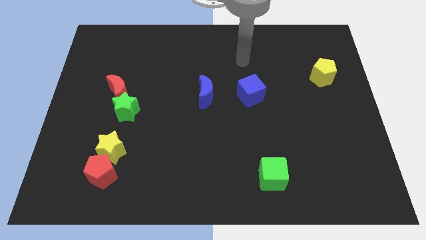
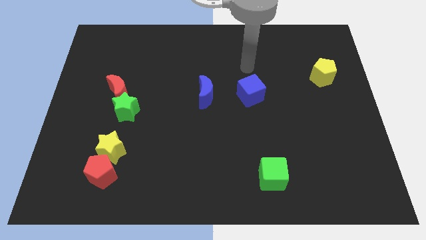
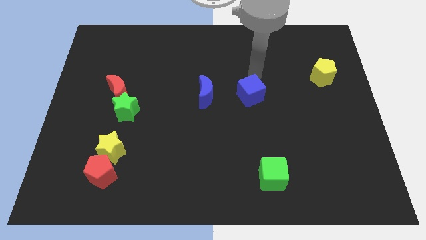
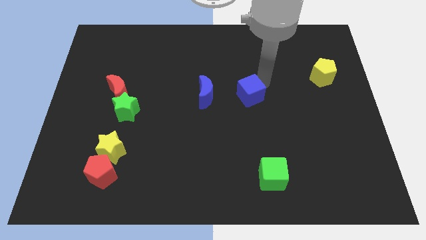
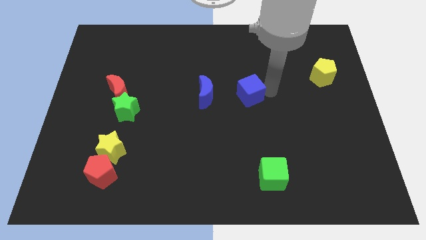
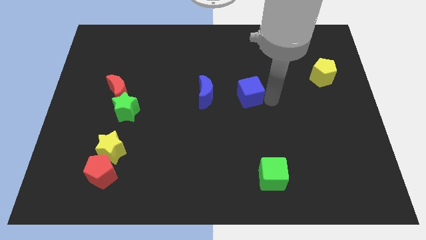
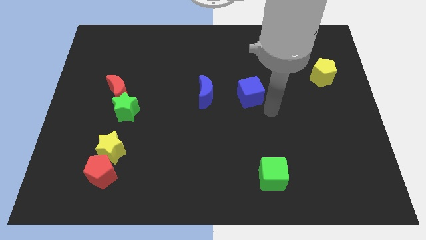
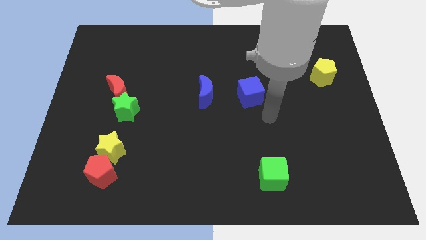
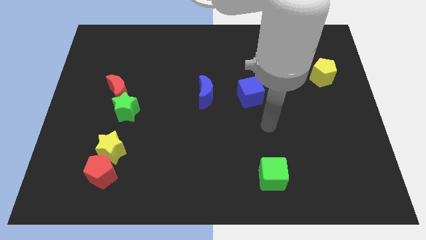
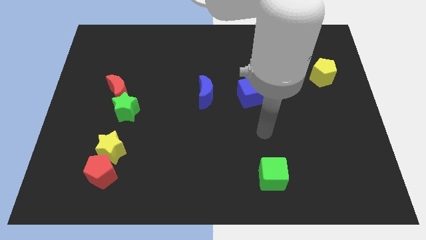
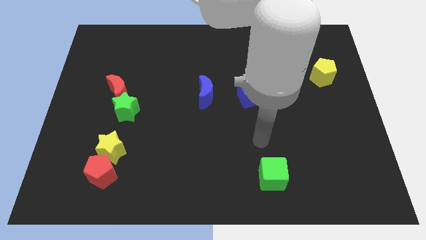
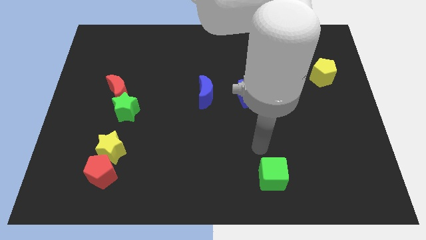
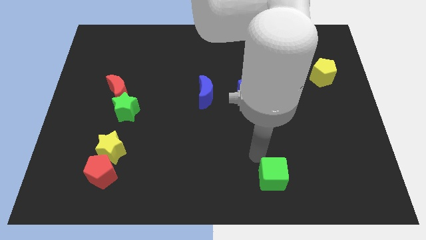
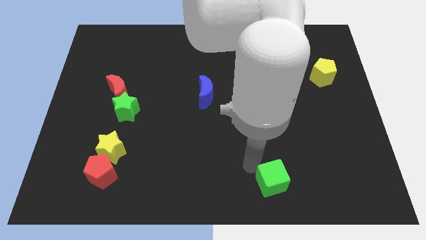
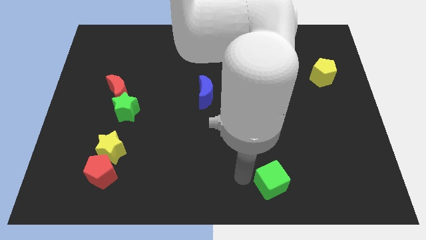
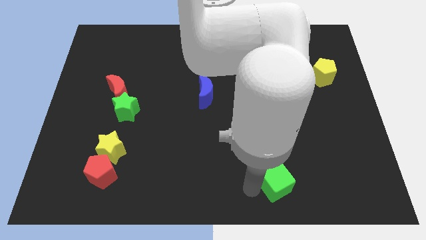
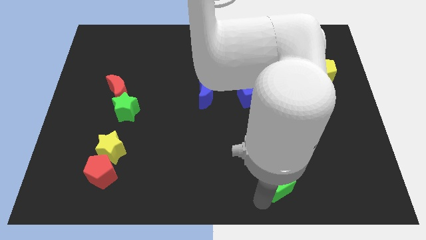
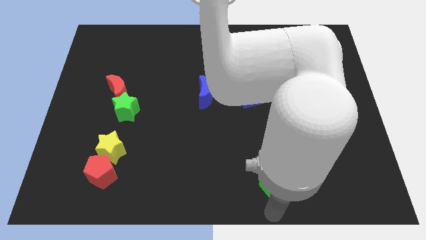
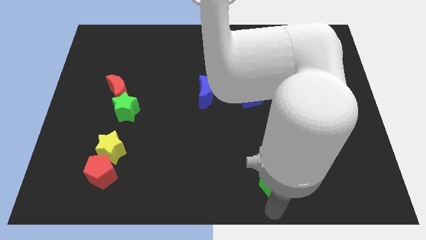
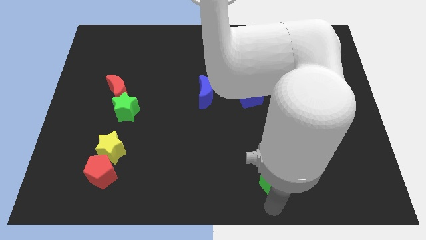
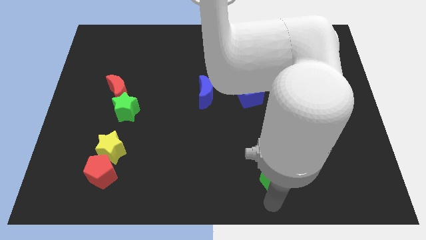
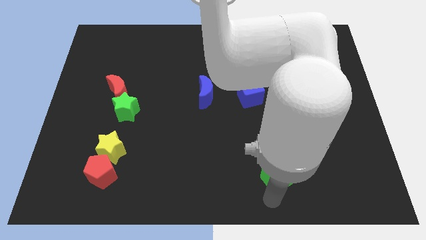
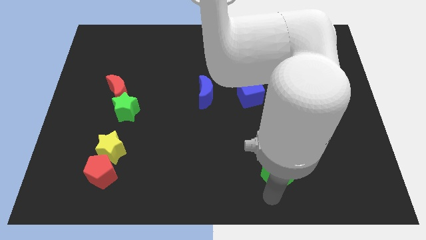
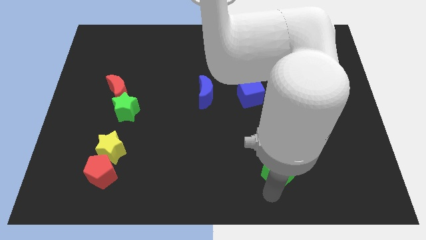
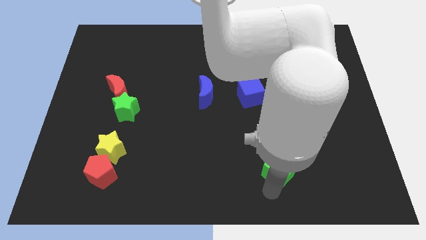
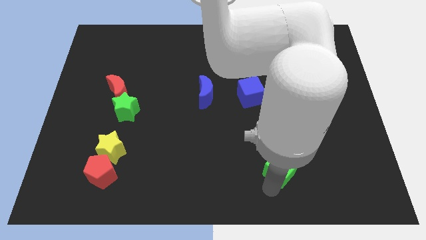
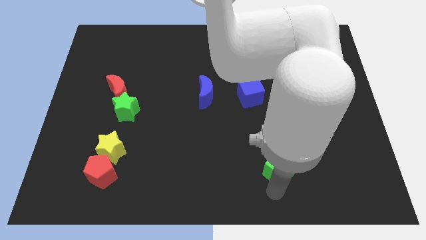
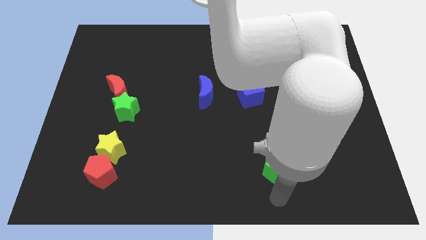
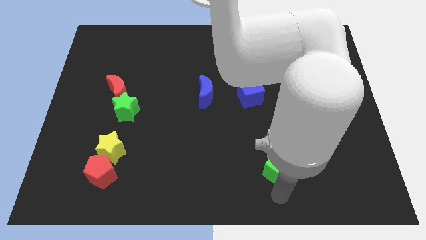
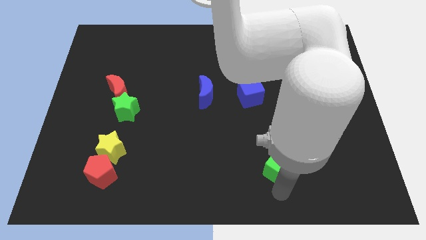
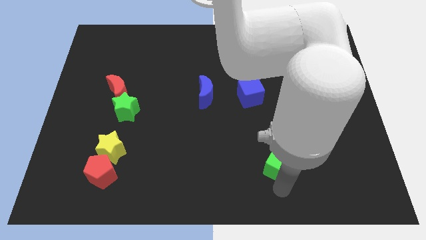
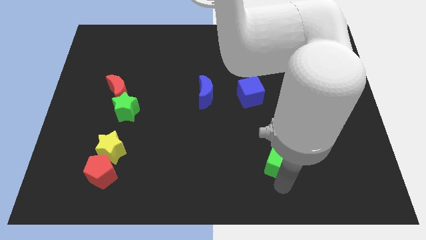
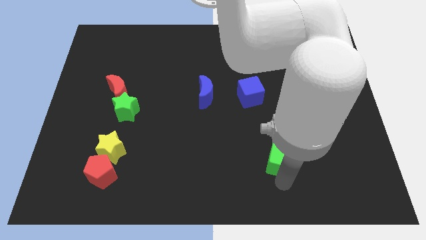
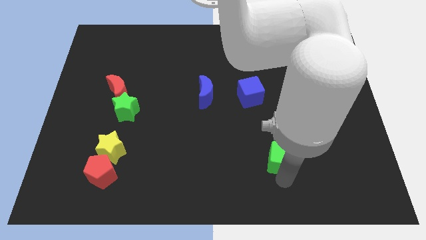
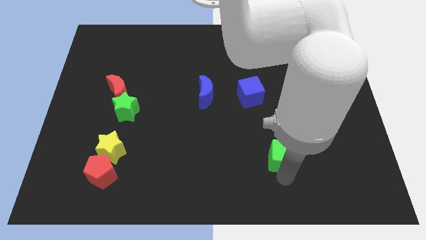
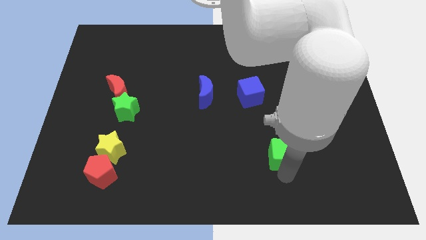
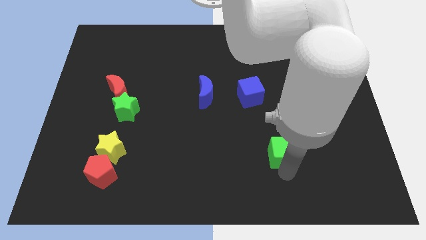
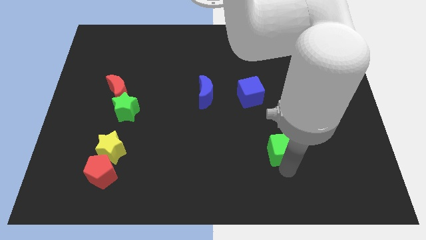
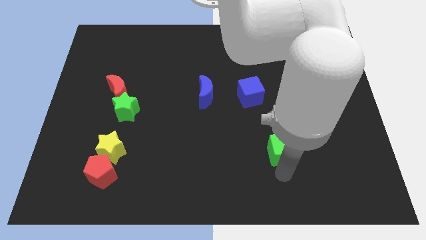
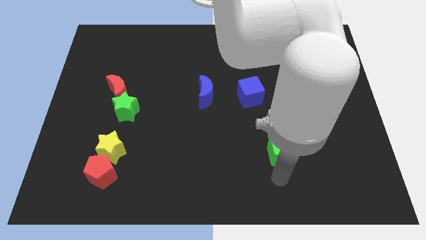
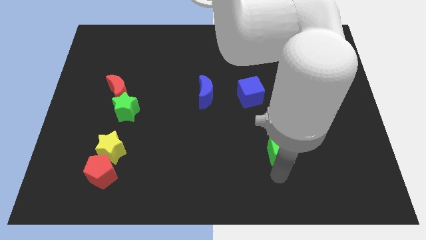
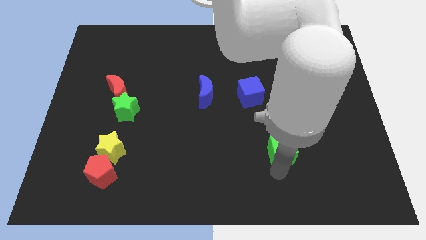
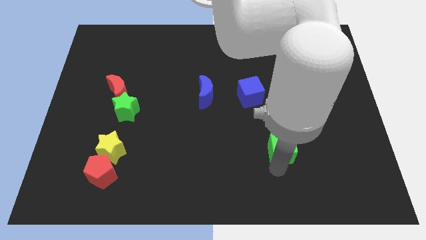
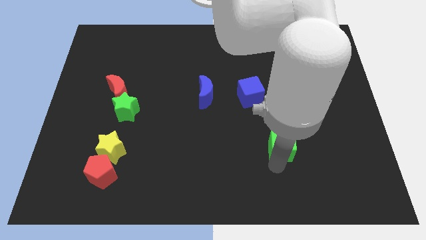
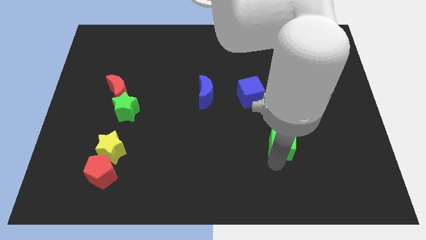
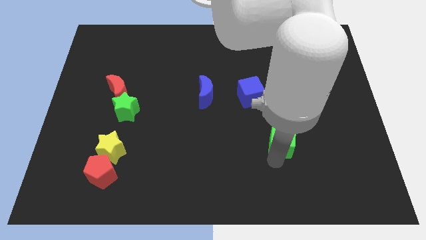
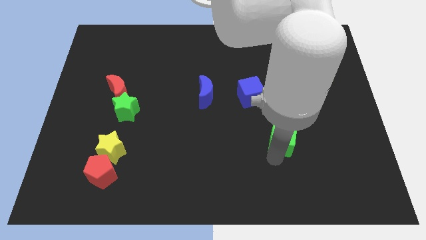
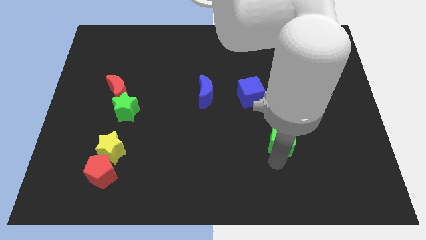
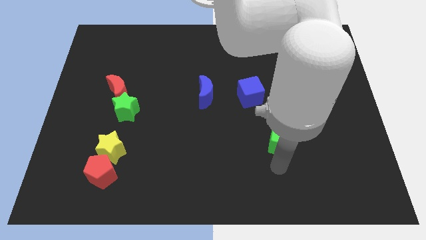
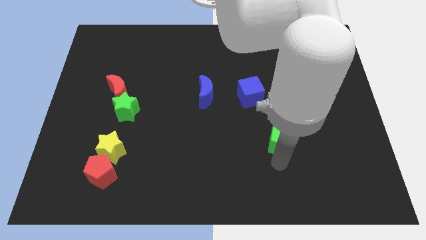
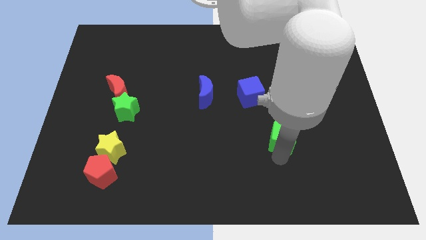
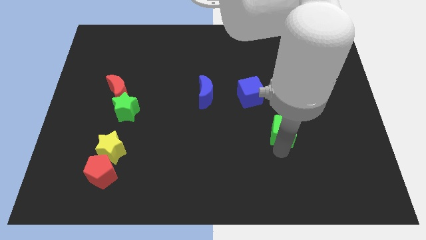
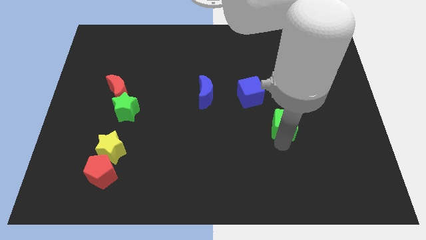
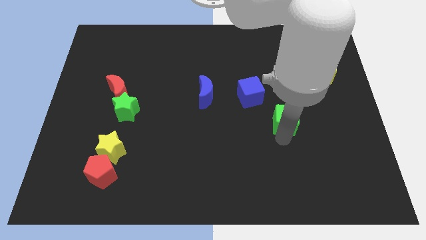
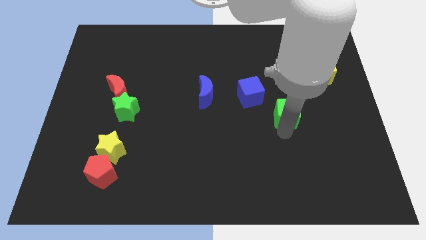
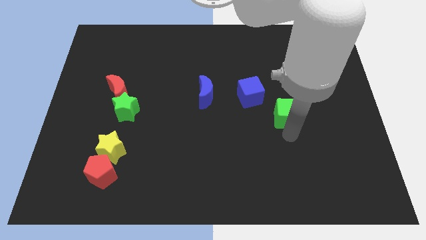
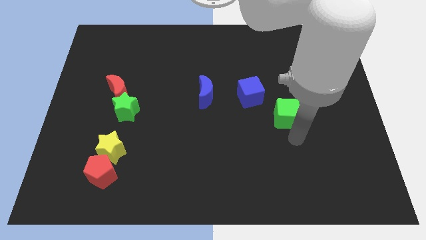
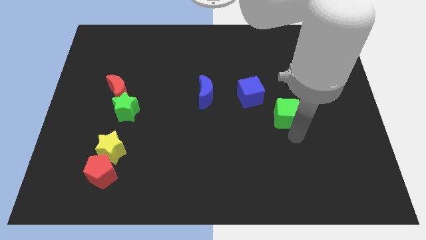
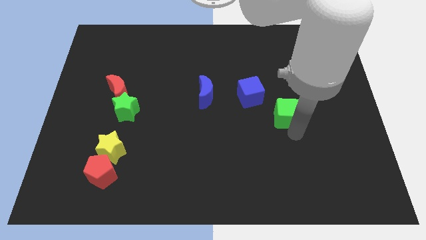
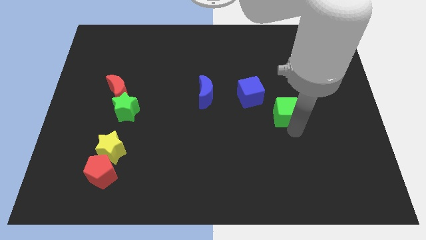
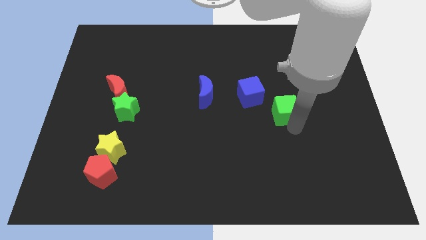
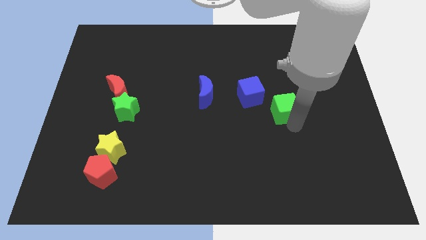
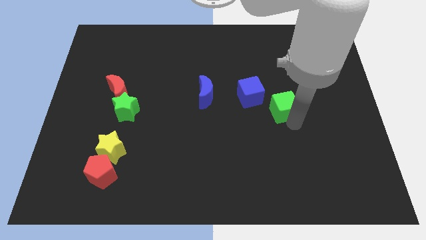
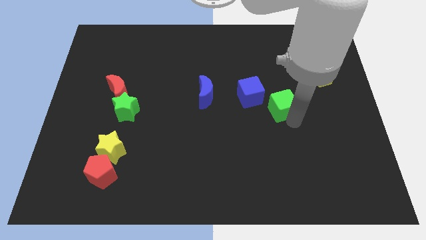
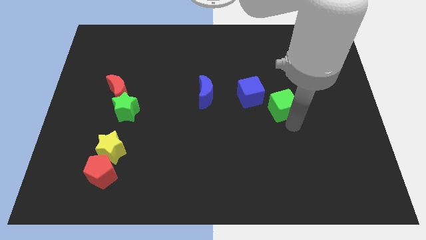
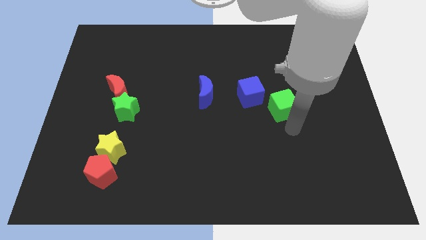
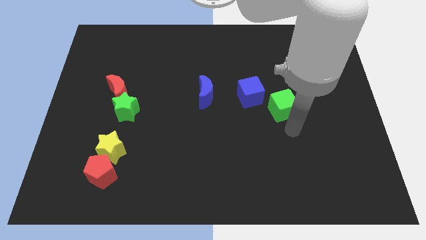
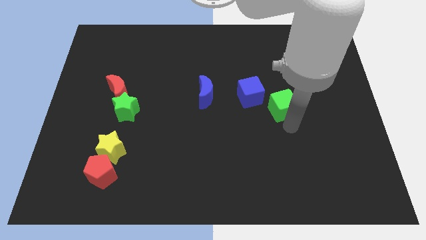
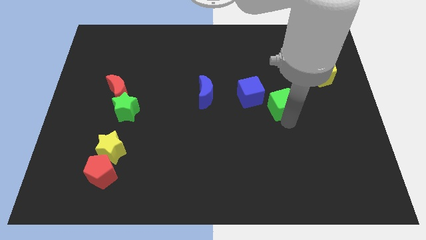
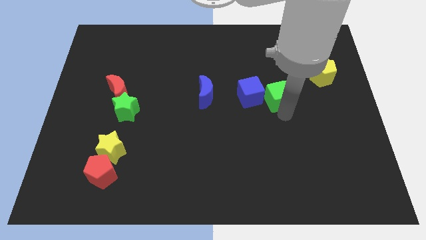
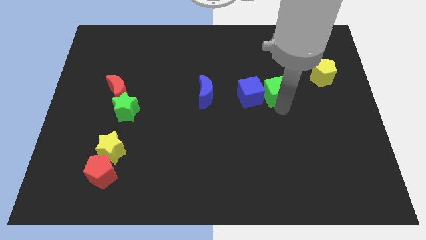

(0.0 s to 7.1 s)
move the green cube to the top right of the blue cube

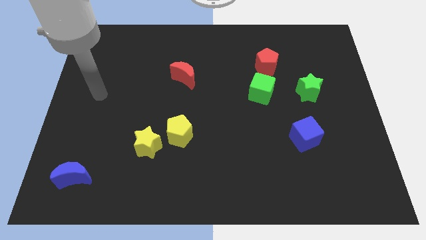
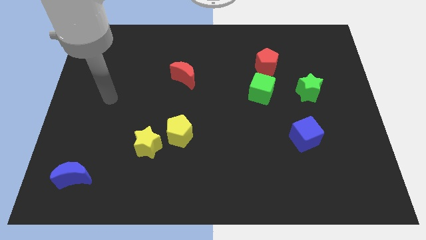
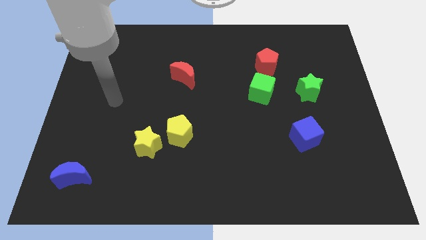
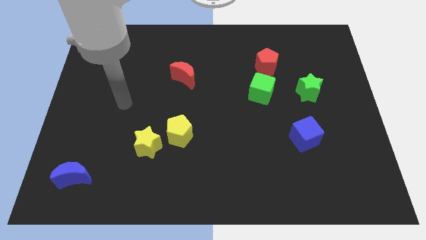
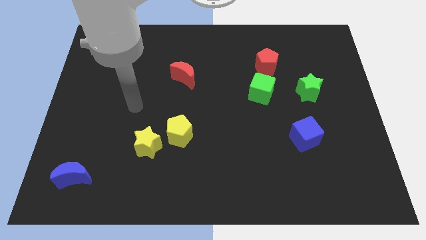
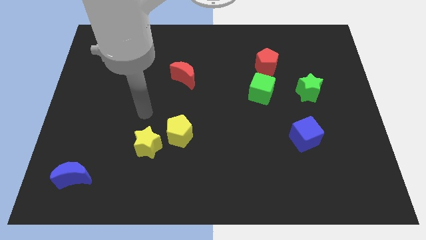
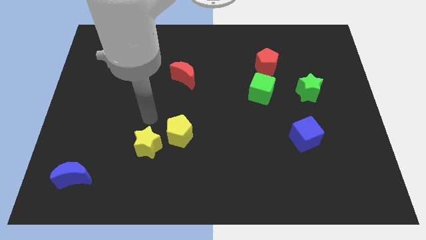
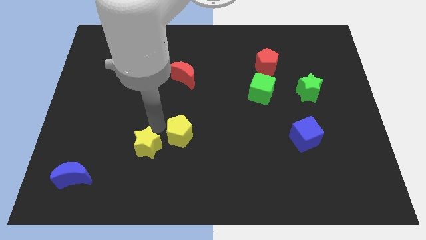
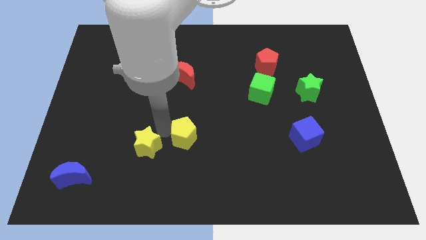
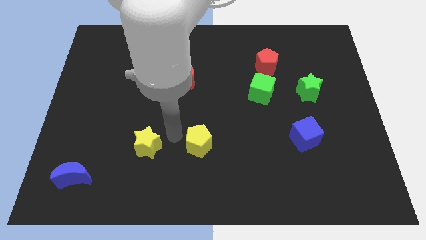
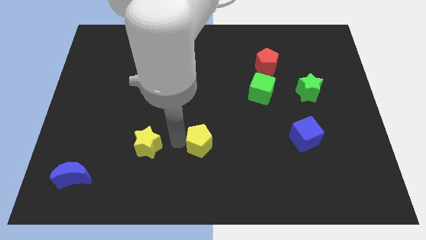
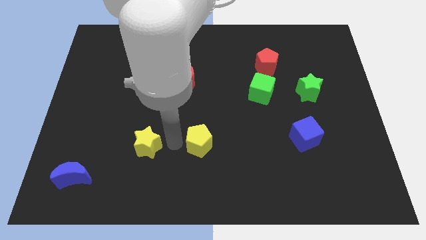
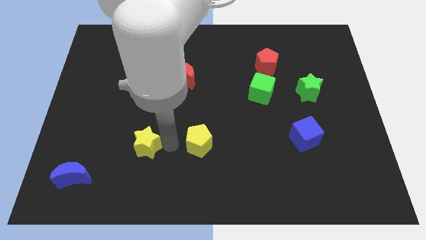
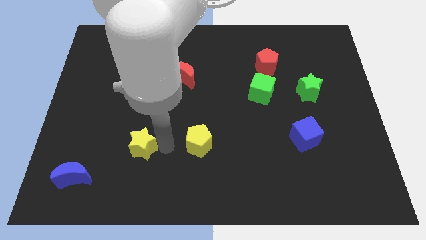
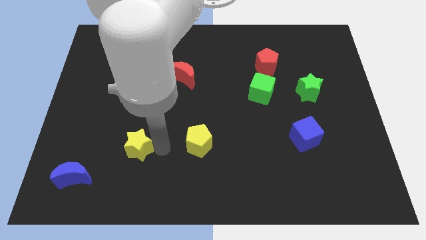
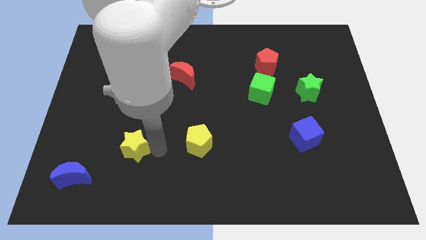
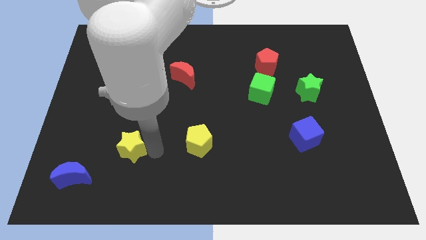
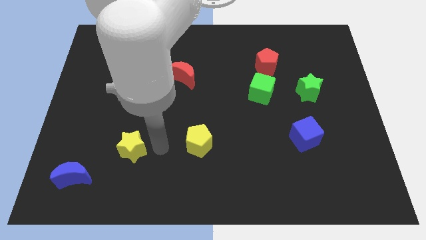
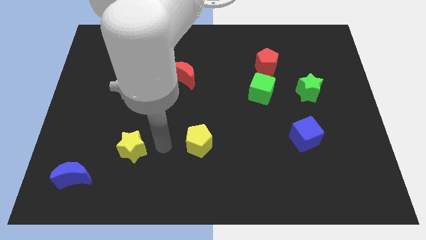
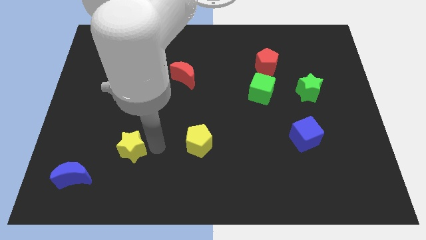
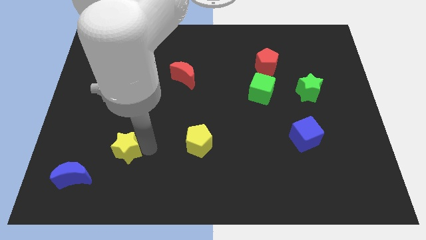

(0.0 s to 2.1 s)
move the yellow star to the top right side of the blue moon
